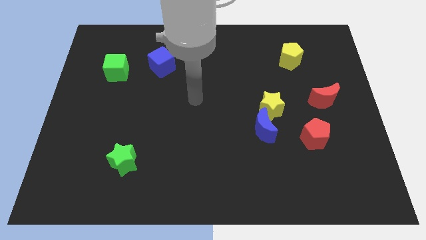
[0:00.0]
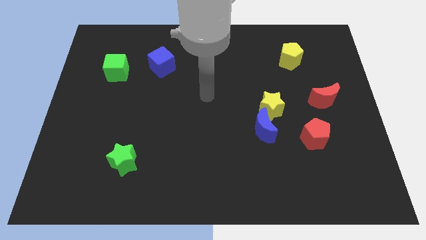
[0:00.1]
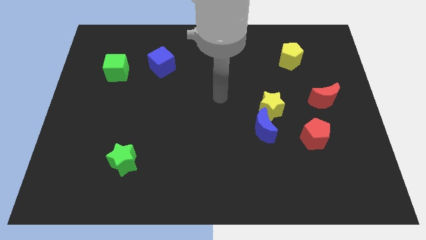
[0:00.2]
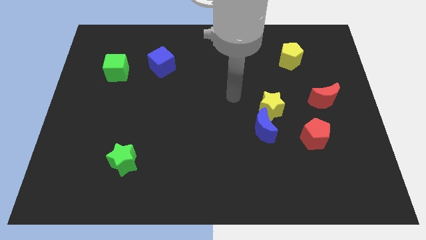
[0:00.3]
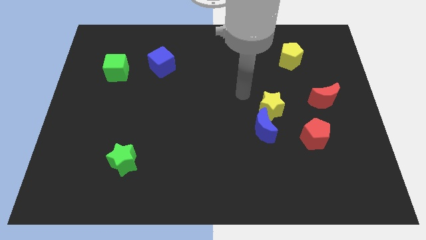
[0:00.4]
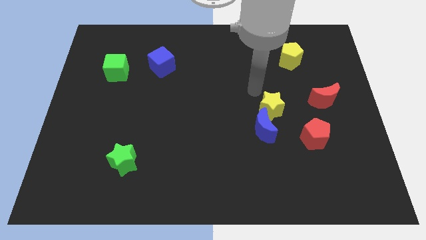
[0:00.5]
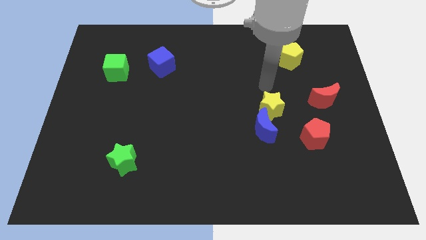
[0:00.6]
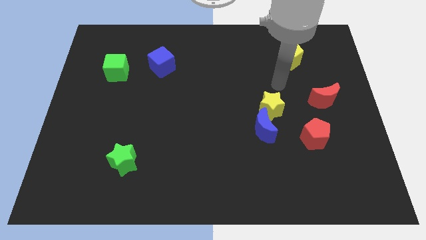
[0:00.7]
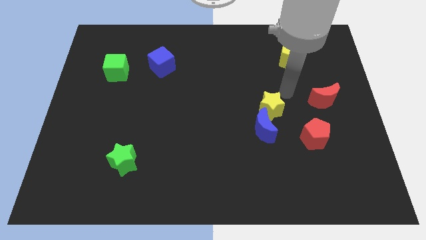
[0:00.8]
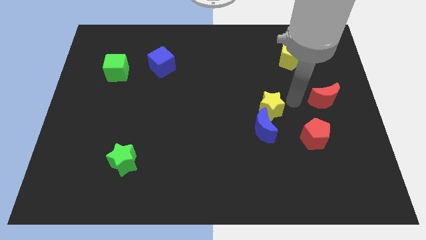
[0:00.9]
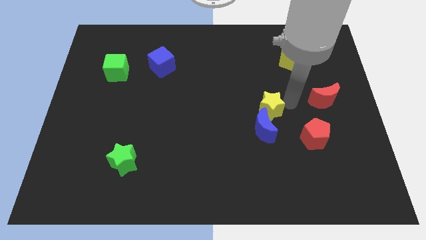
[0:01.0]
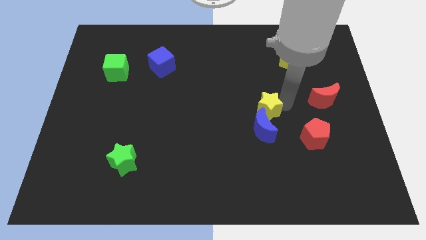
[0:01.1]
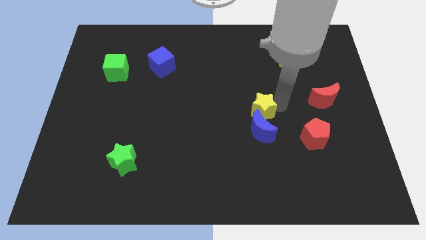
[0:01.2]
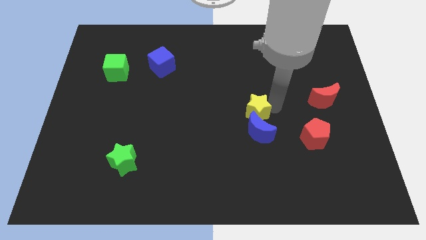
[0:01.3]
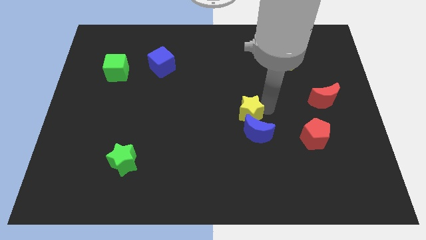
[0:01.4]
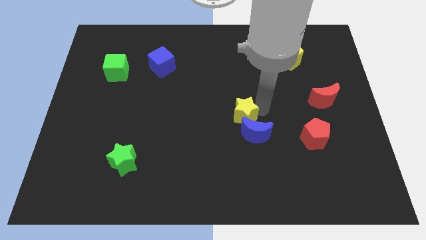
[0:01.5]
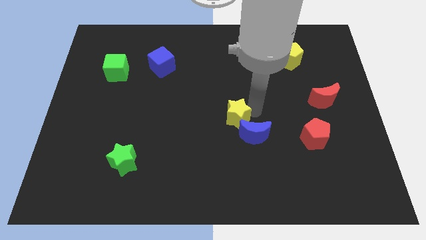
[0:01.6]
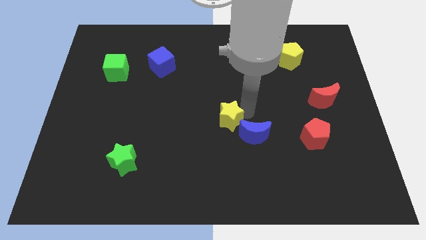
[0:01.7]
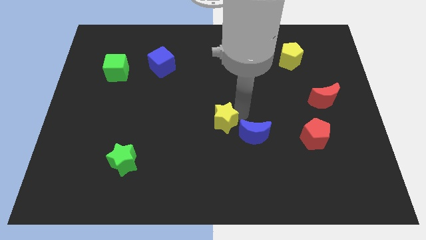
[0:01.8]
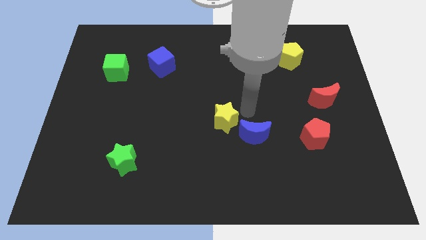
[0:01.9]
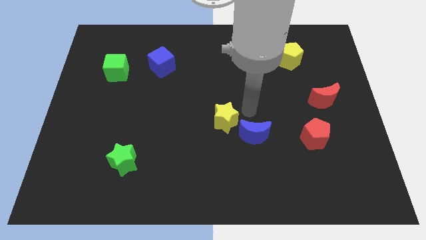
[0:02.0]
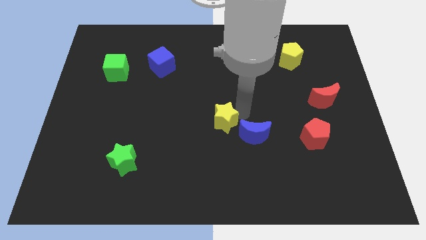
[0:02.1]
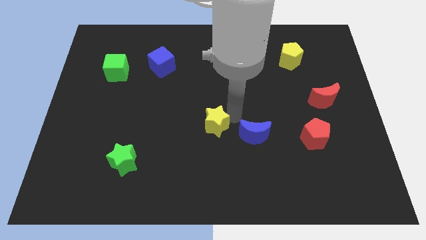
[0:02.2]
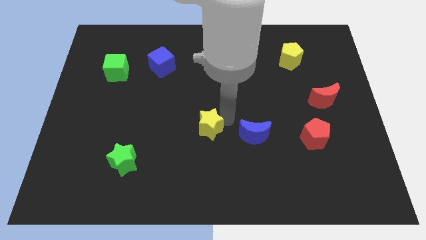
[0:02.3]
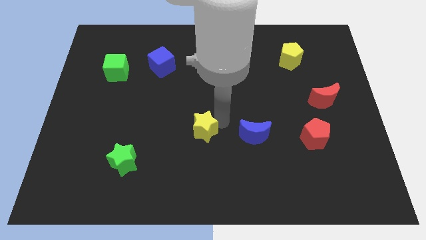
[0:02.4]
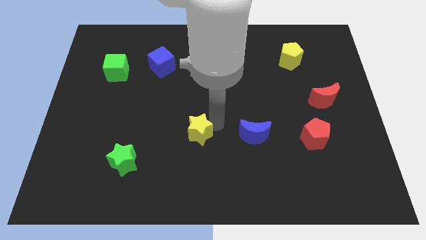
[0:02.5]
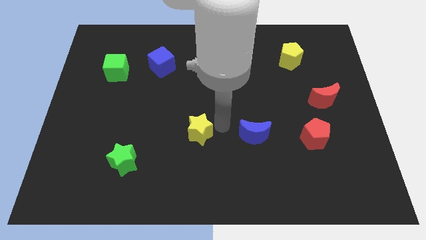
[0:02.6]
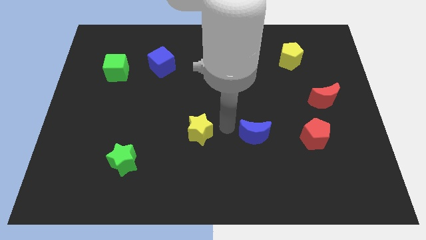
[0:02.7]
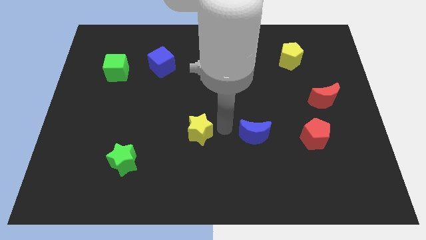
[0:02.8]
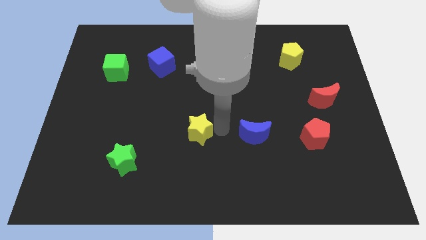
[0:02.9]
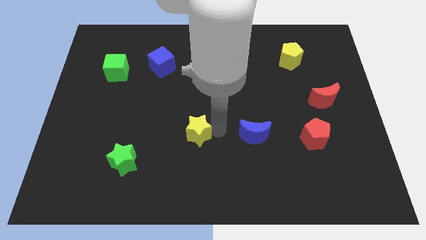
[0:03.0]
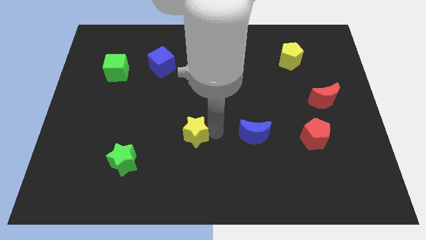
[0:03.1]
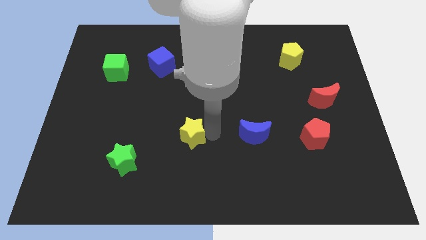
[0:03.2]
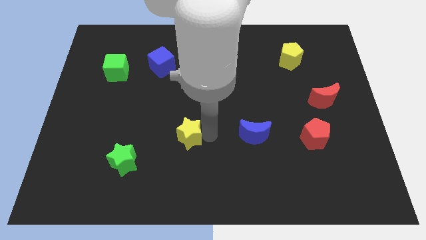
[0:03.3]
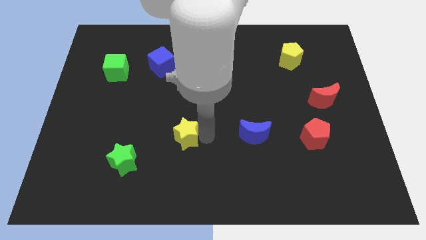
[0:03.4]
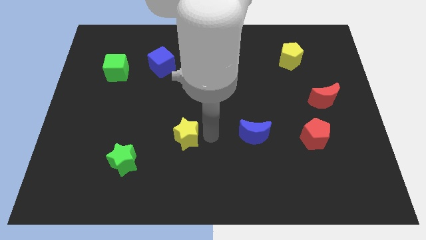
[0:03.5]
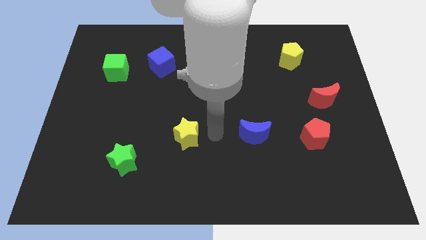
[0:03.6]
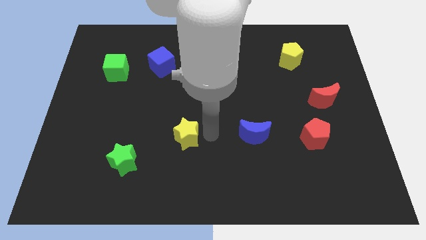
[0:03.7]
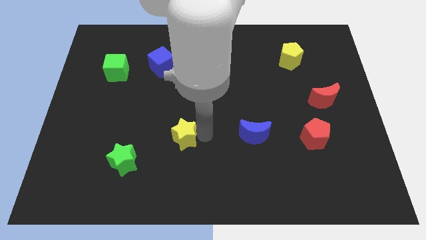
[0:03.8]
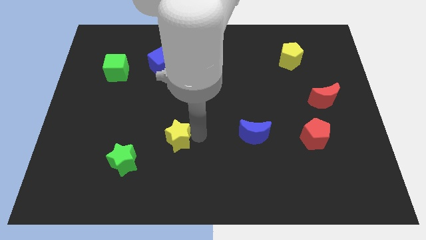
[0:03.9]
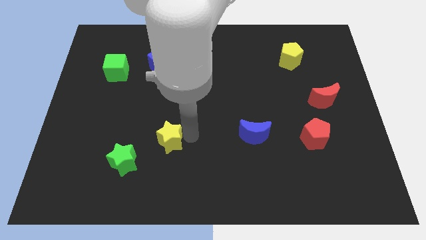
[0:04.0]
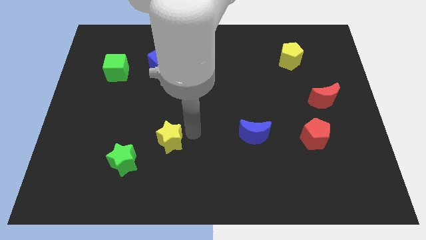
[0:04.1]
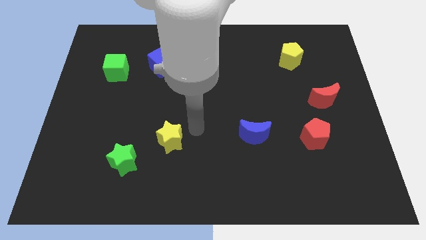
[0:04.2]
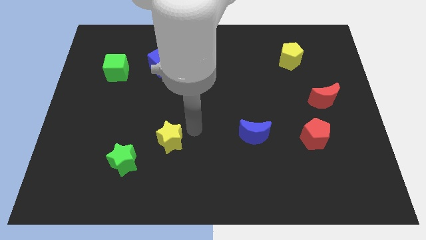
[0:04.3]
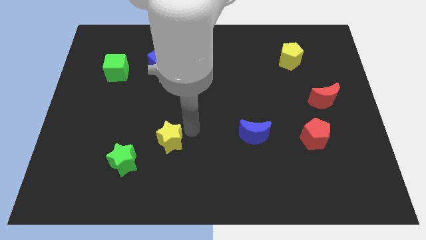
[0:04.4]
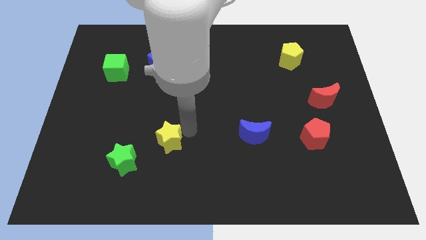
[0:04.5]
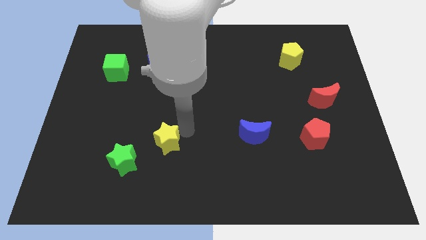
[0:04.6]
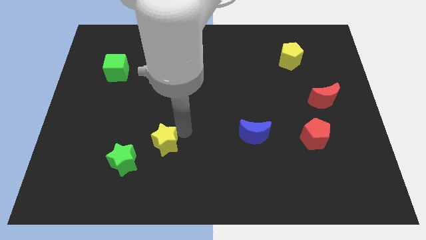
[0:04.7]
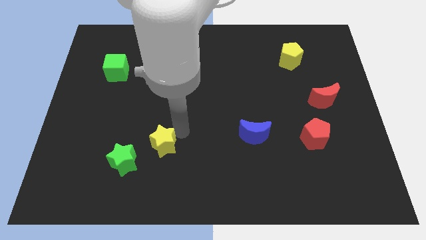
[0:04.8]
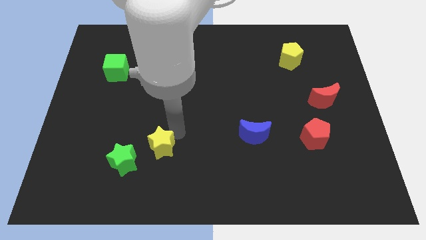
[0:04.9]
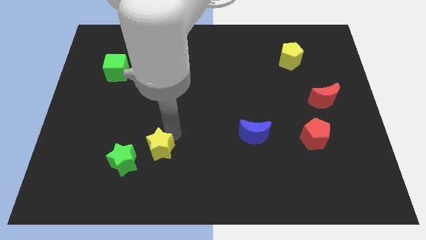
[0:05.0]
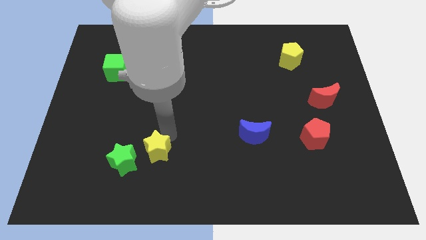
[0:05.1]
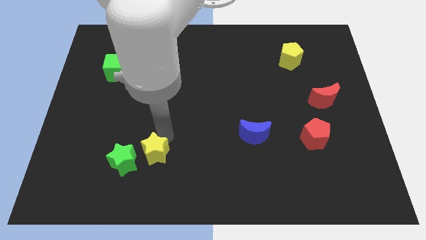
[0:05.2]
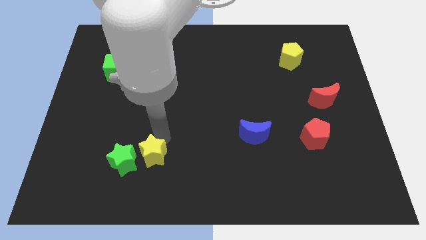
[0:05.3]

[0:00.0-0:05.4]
put the yellow star to the green star

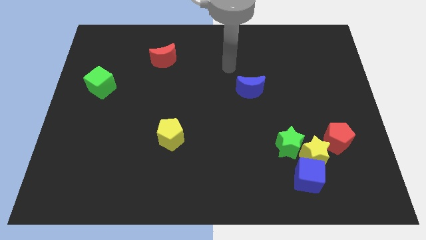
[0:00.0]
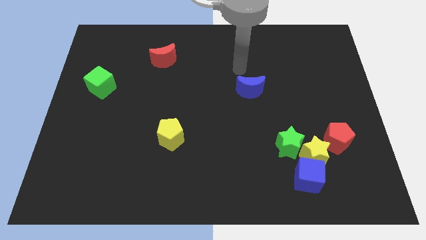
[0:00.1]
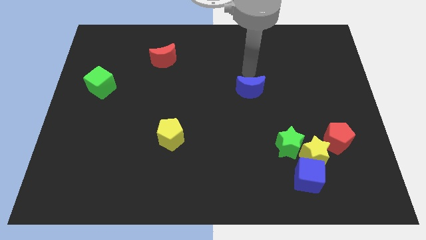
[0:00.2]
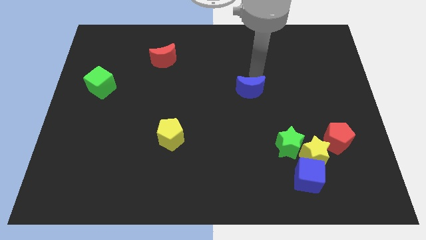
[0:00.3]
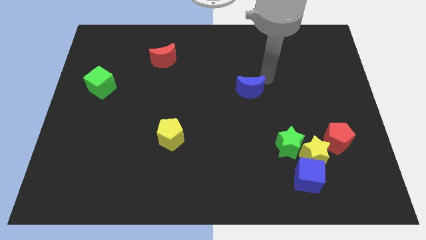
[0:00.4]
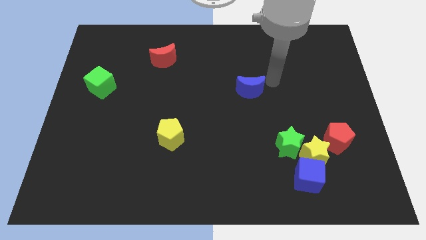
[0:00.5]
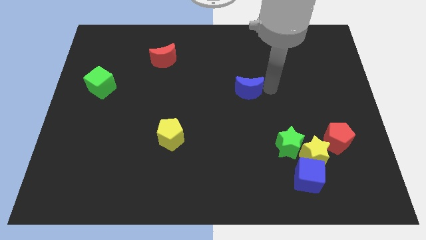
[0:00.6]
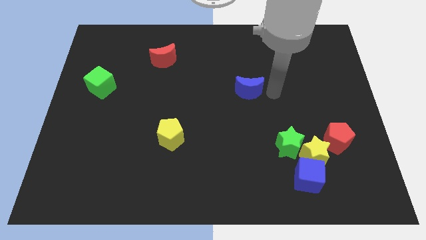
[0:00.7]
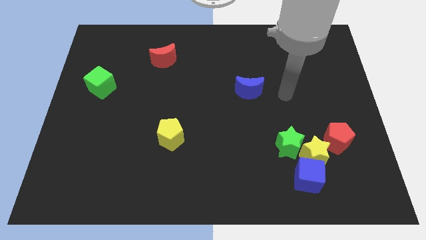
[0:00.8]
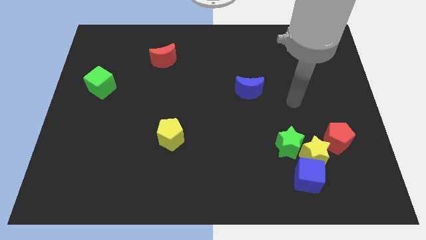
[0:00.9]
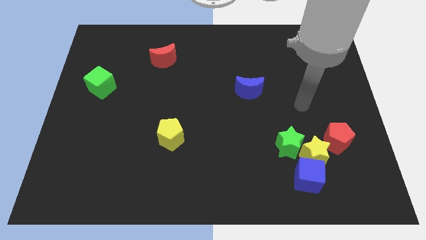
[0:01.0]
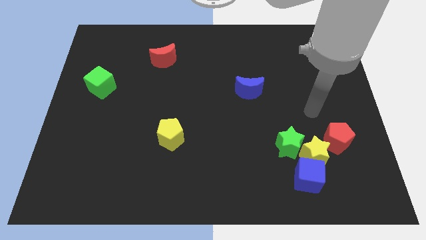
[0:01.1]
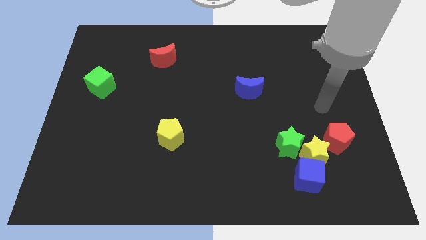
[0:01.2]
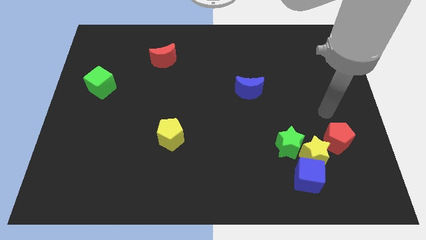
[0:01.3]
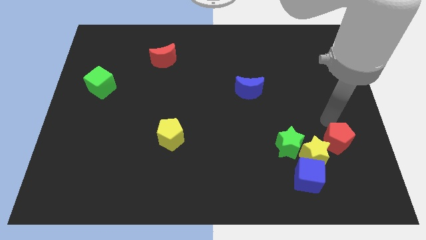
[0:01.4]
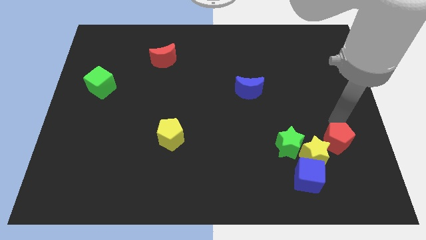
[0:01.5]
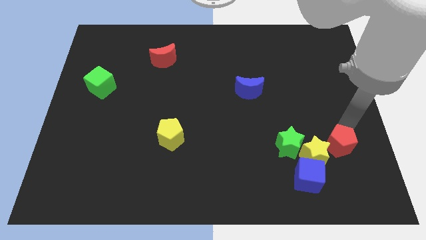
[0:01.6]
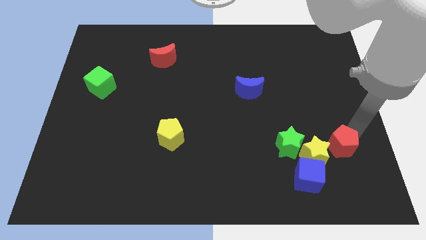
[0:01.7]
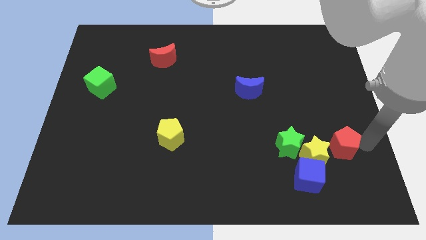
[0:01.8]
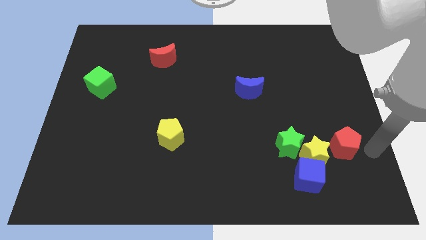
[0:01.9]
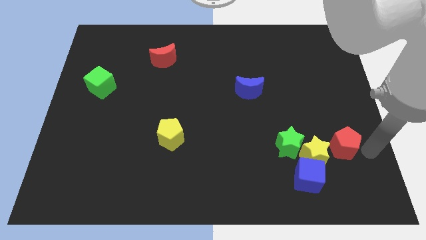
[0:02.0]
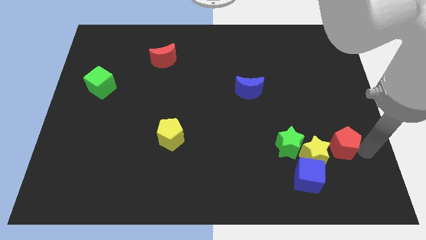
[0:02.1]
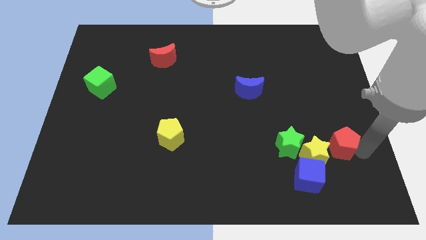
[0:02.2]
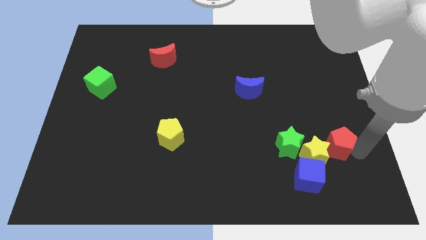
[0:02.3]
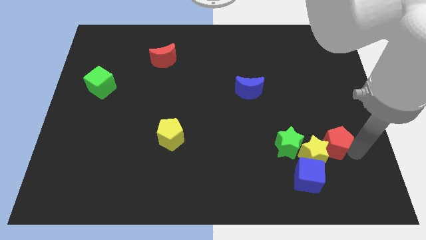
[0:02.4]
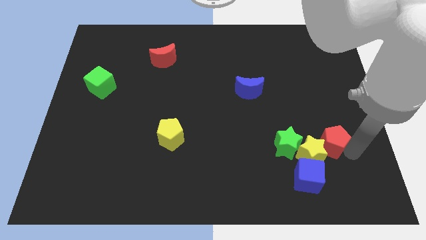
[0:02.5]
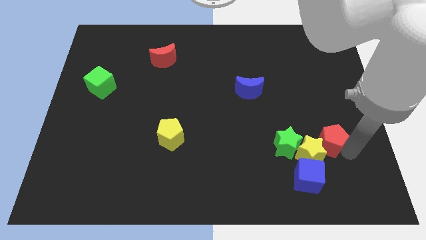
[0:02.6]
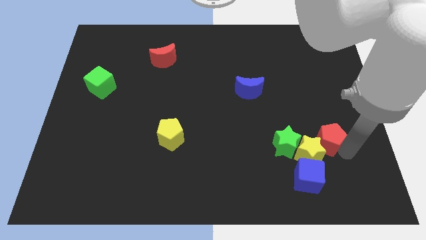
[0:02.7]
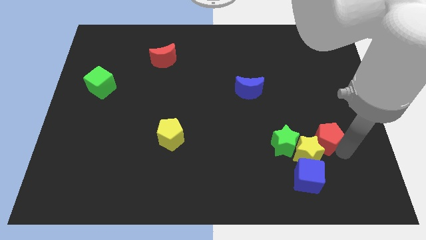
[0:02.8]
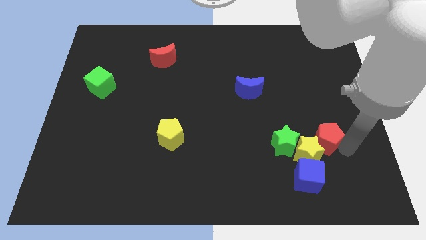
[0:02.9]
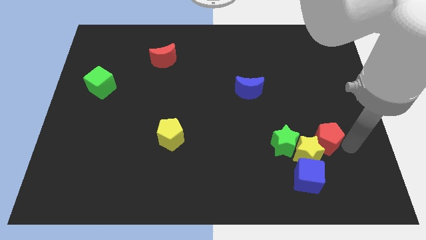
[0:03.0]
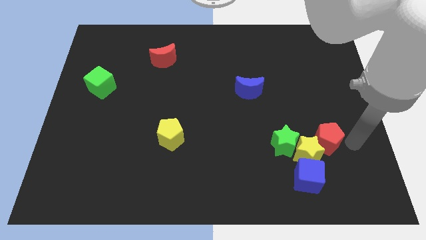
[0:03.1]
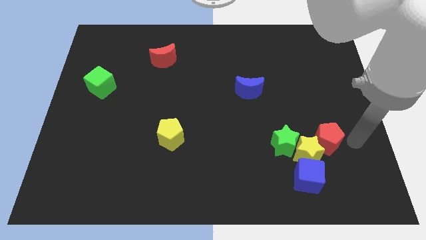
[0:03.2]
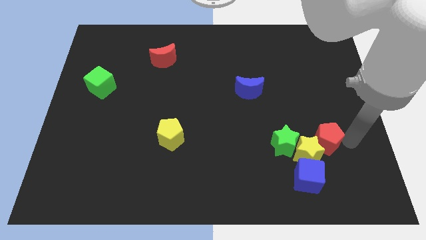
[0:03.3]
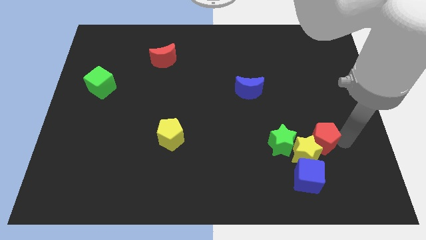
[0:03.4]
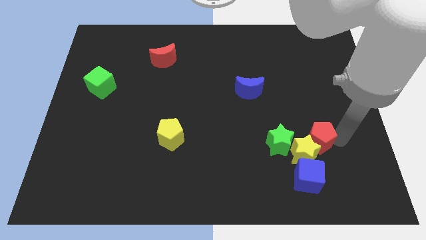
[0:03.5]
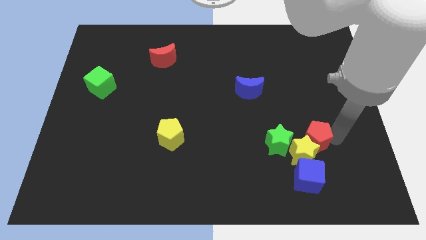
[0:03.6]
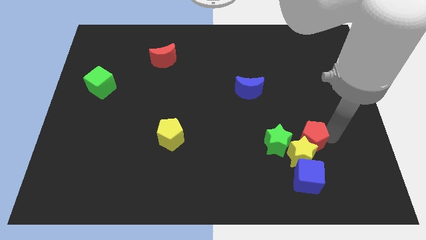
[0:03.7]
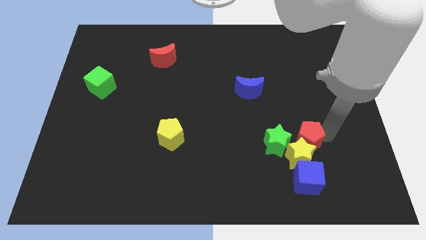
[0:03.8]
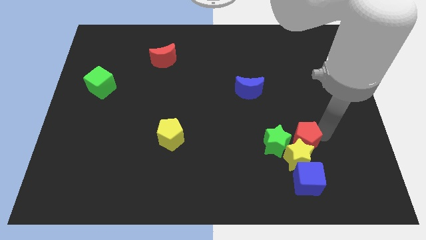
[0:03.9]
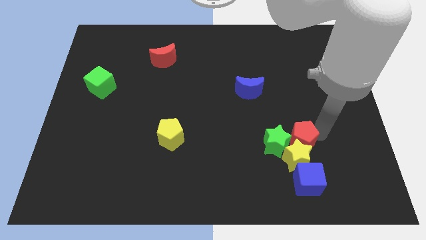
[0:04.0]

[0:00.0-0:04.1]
slide the red pentagon towards the green star
